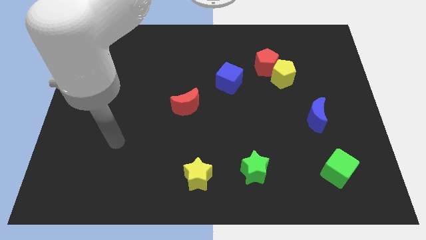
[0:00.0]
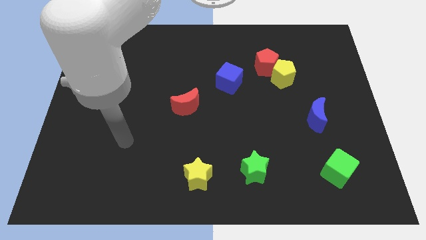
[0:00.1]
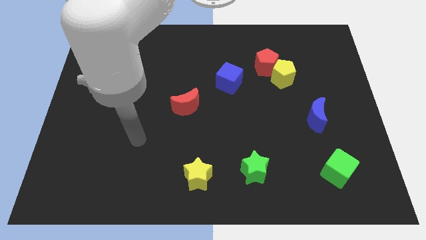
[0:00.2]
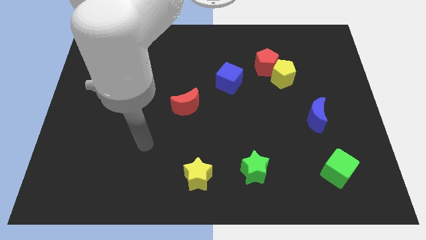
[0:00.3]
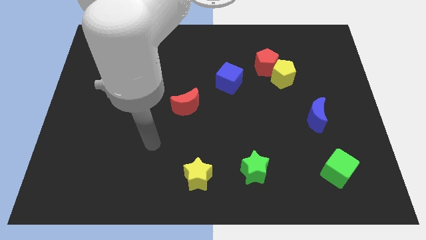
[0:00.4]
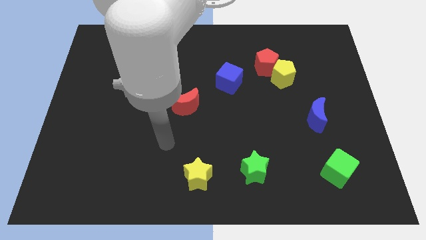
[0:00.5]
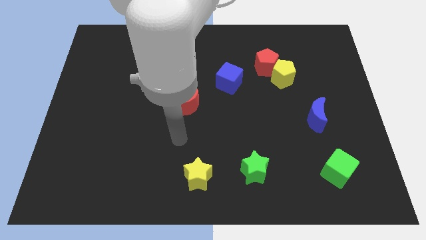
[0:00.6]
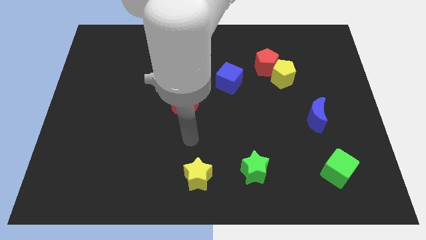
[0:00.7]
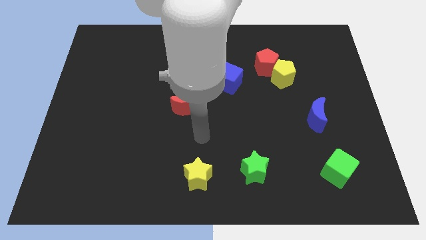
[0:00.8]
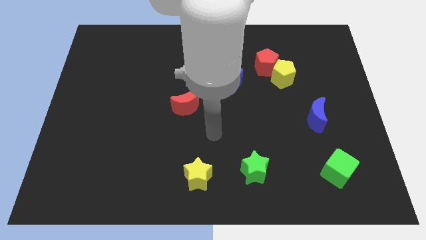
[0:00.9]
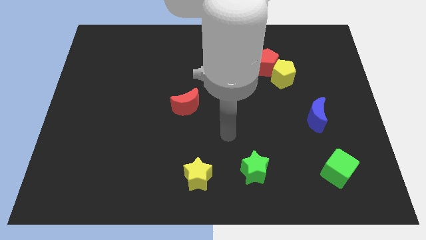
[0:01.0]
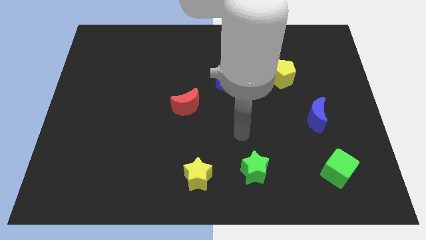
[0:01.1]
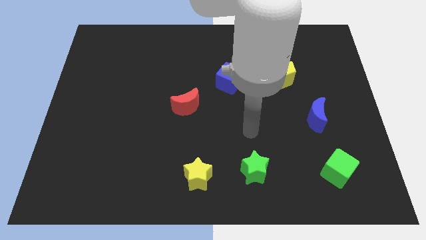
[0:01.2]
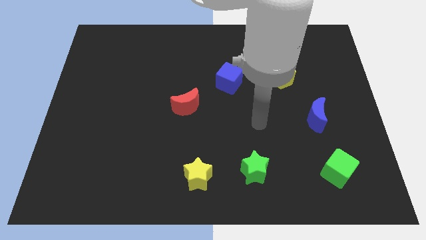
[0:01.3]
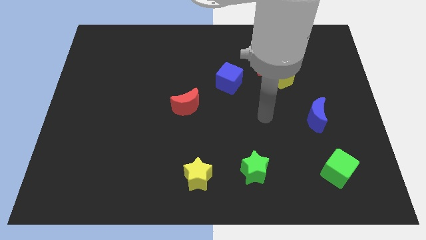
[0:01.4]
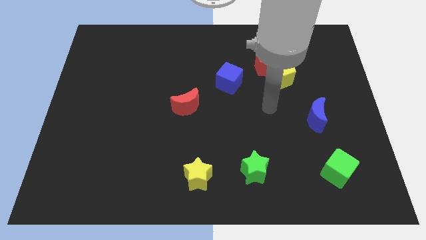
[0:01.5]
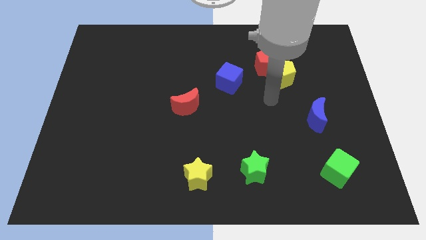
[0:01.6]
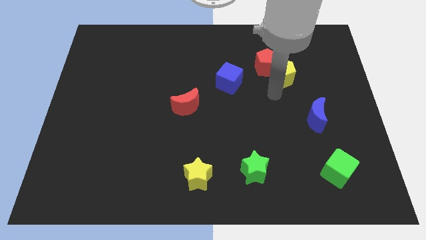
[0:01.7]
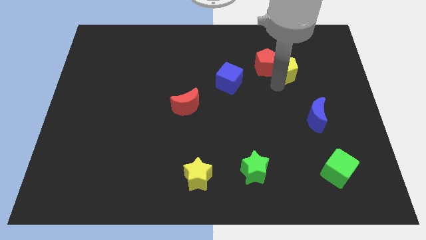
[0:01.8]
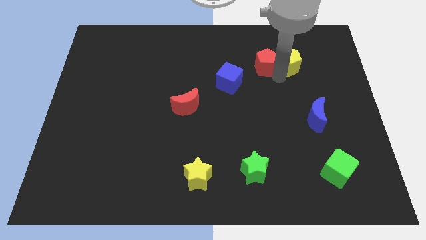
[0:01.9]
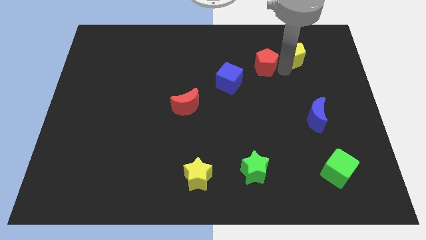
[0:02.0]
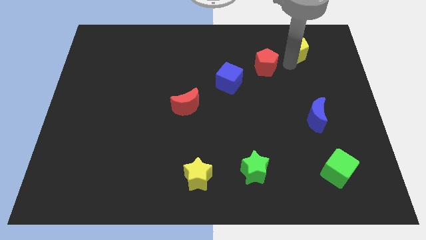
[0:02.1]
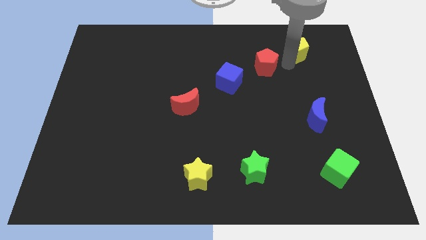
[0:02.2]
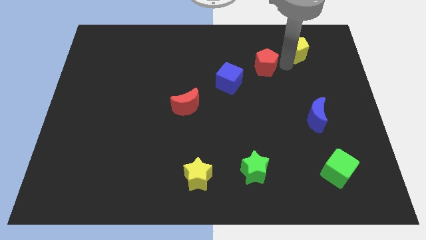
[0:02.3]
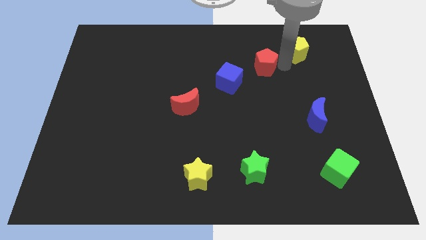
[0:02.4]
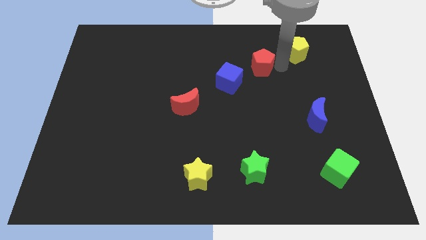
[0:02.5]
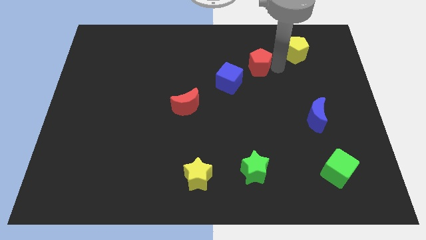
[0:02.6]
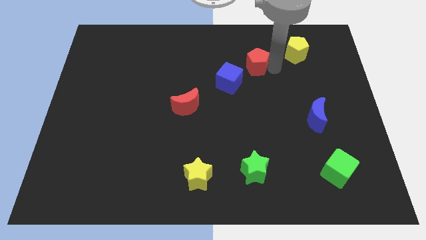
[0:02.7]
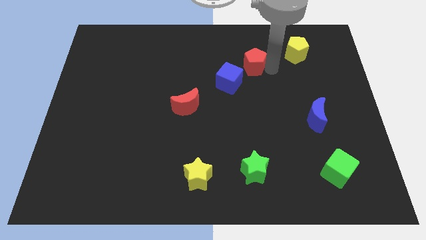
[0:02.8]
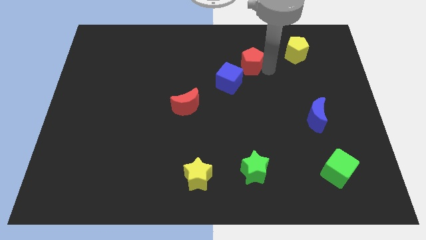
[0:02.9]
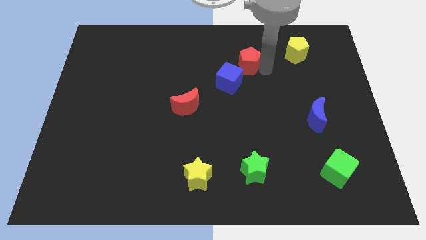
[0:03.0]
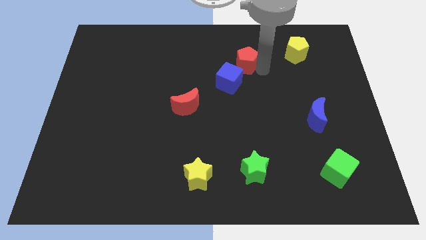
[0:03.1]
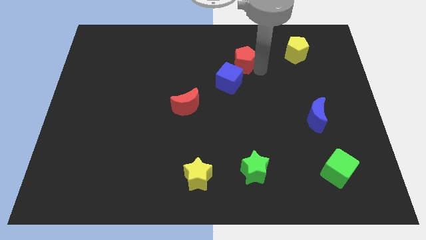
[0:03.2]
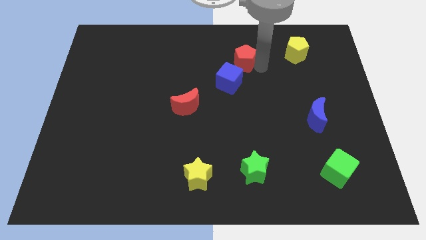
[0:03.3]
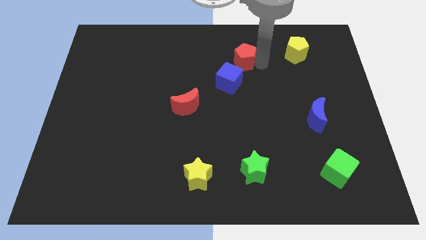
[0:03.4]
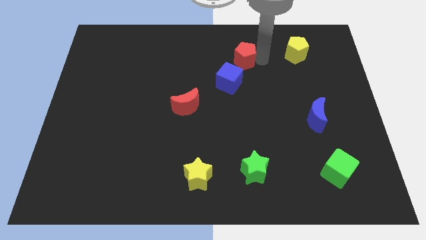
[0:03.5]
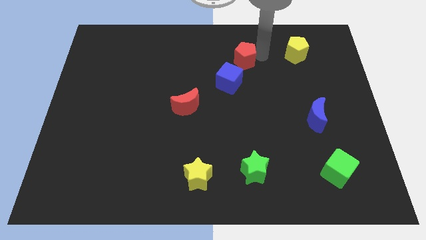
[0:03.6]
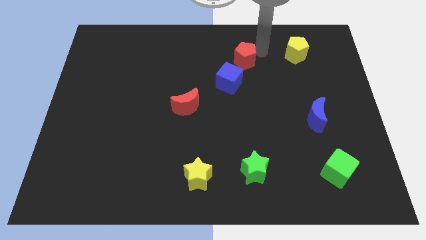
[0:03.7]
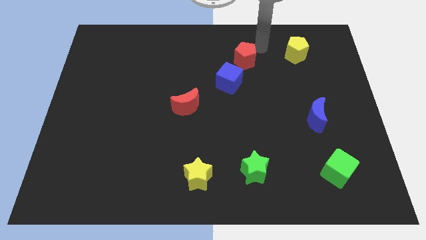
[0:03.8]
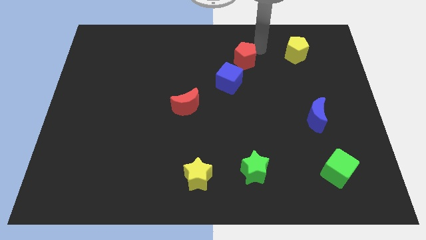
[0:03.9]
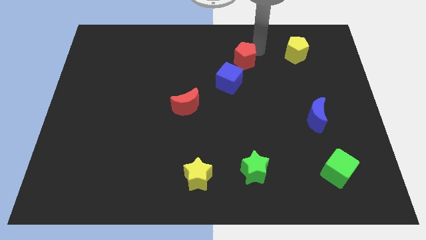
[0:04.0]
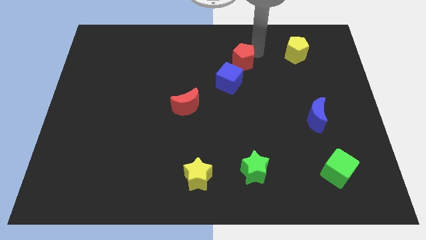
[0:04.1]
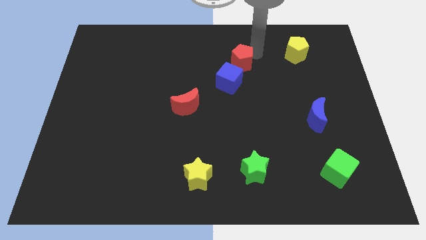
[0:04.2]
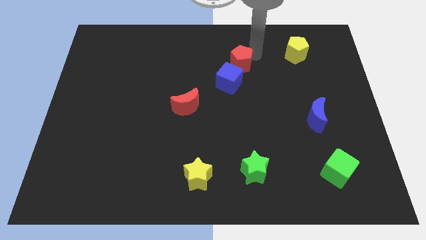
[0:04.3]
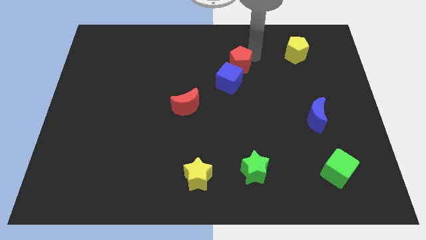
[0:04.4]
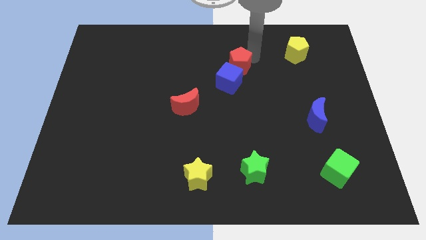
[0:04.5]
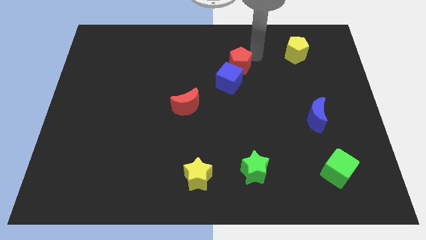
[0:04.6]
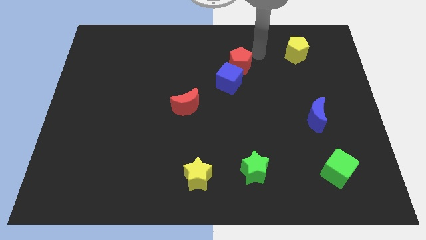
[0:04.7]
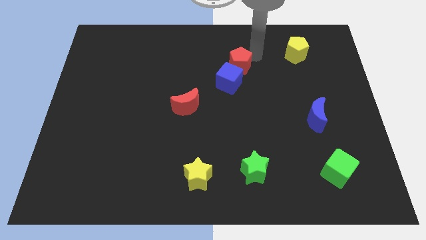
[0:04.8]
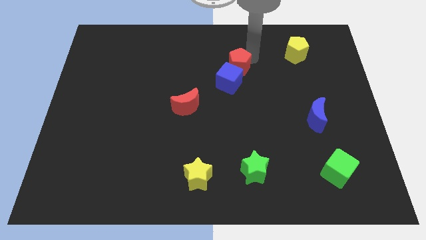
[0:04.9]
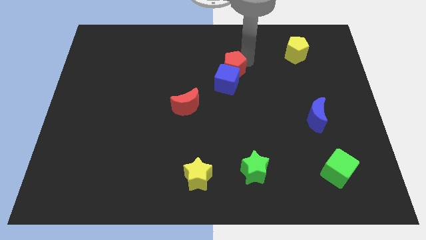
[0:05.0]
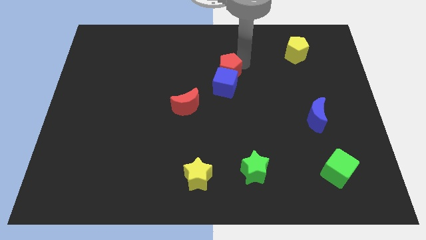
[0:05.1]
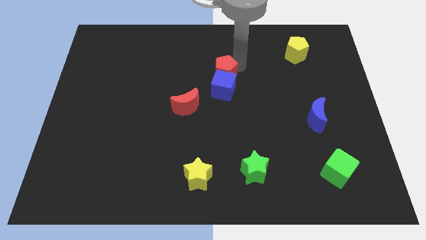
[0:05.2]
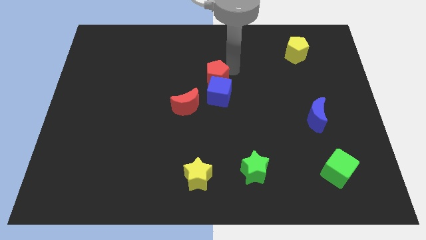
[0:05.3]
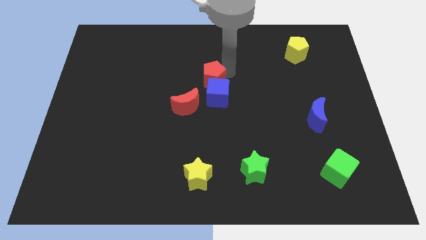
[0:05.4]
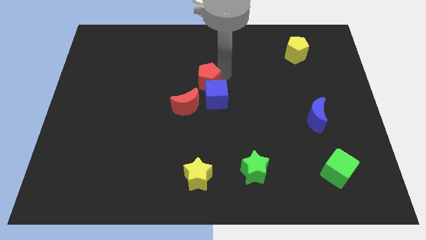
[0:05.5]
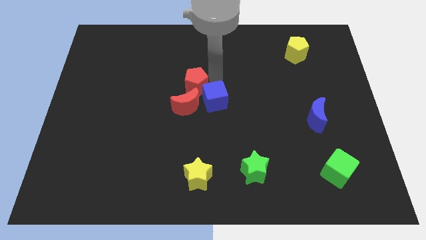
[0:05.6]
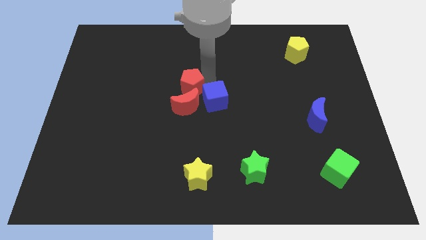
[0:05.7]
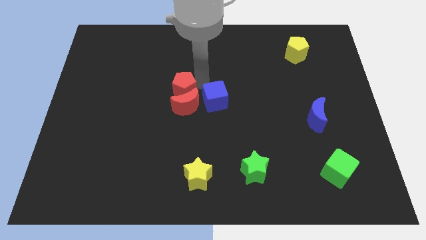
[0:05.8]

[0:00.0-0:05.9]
slide the red pentagon to the top left side of the red moon

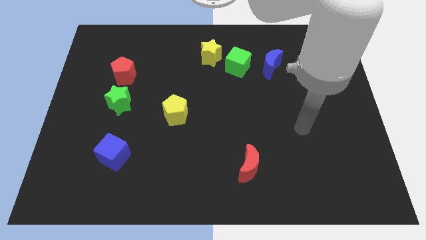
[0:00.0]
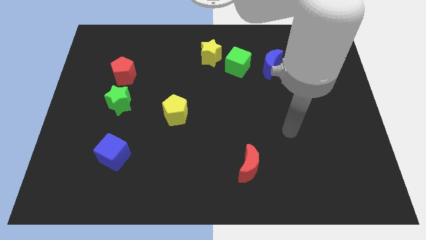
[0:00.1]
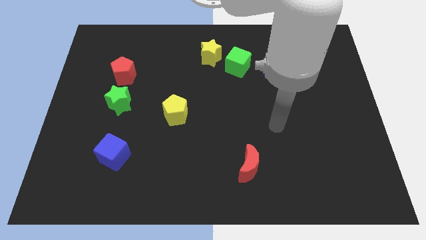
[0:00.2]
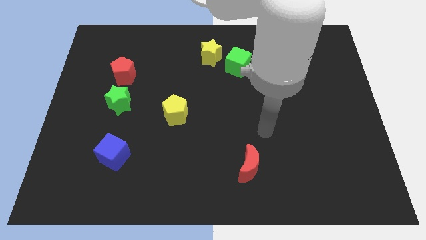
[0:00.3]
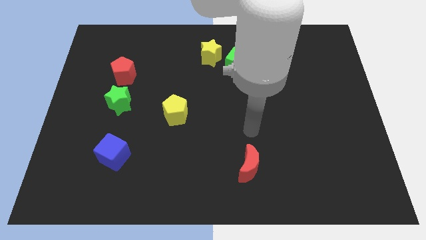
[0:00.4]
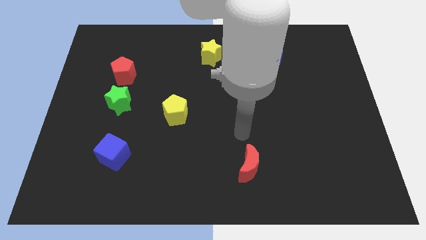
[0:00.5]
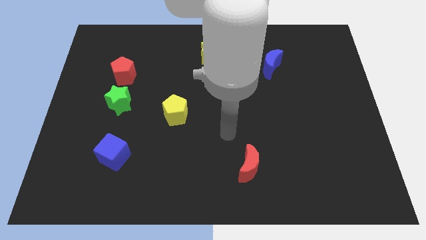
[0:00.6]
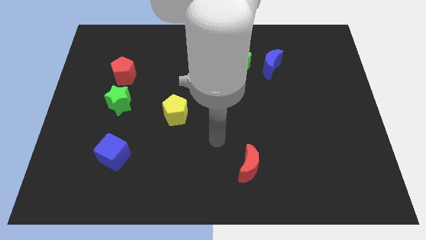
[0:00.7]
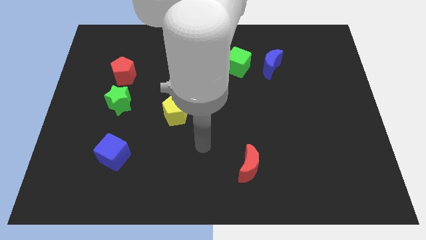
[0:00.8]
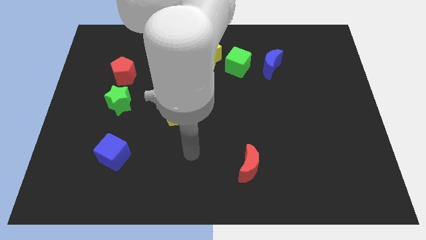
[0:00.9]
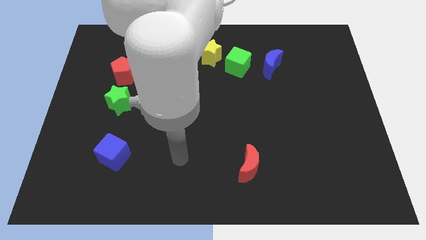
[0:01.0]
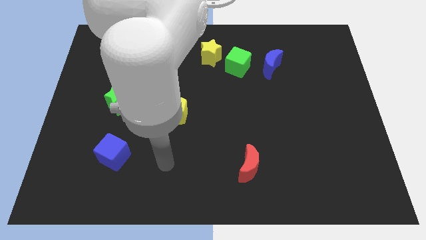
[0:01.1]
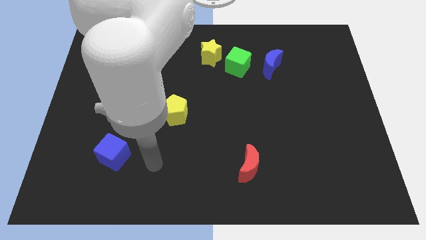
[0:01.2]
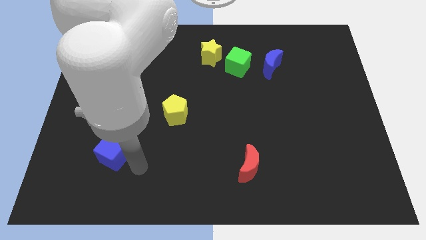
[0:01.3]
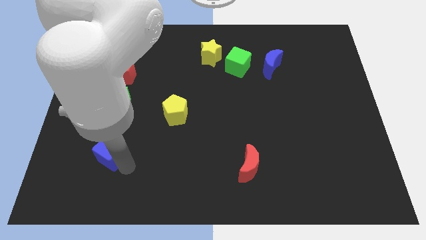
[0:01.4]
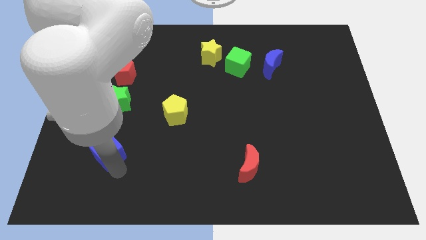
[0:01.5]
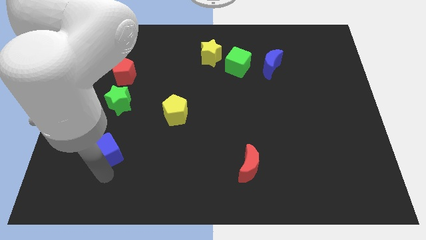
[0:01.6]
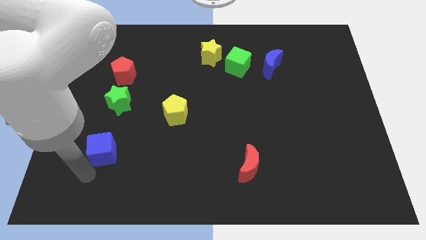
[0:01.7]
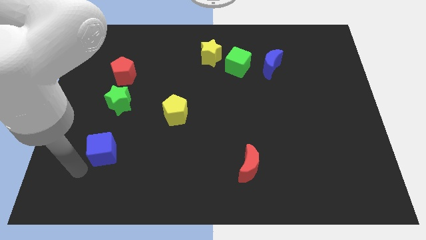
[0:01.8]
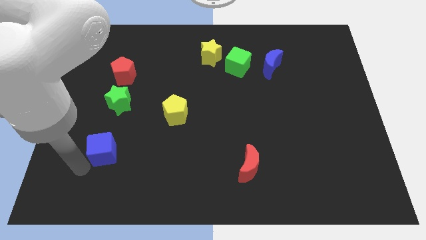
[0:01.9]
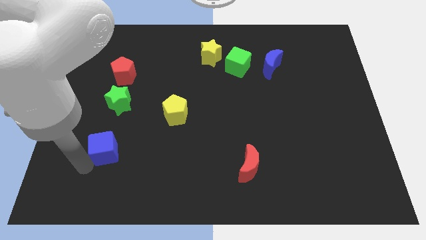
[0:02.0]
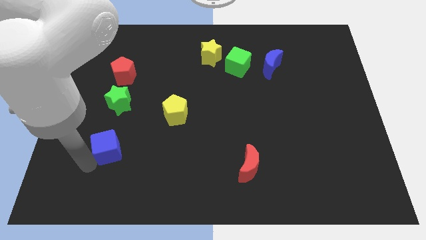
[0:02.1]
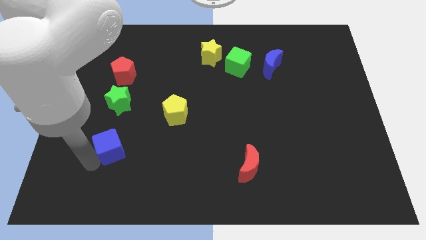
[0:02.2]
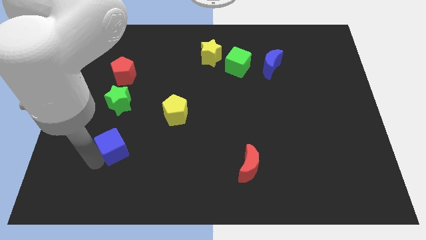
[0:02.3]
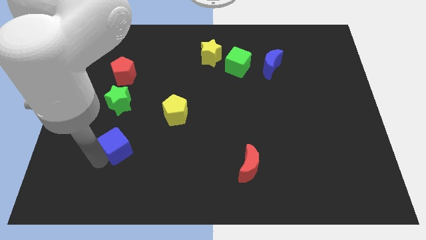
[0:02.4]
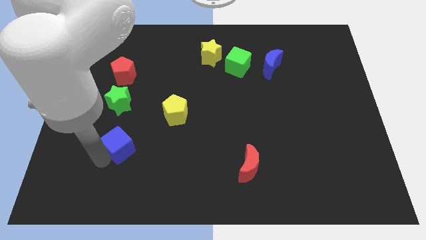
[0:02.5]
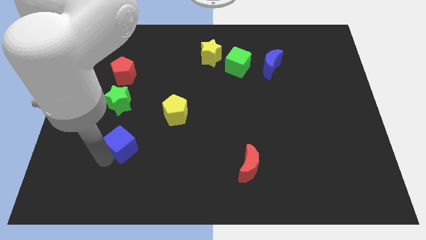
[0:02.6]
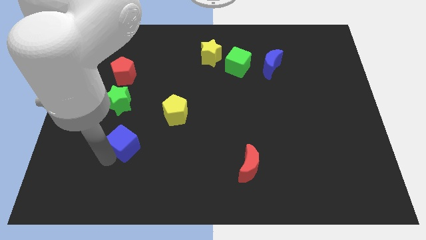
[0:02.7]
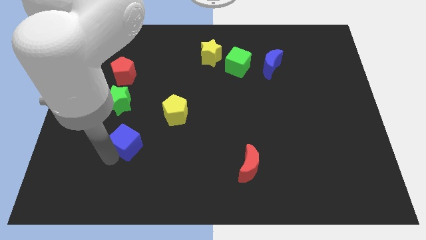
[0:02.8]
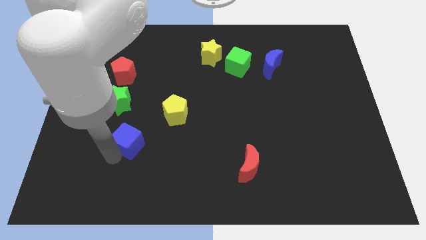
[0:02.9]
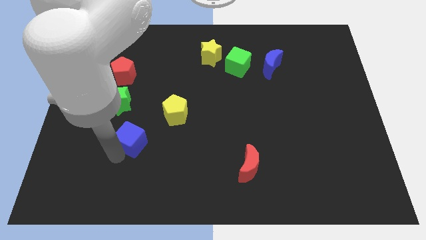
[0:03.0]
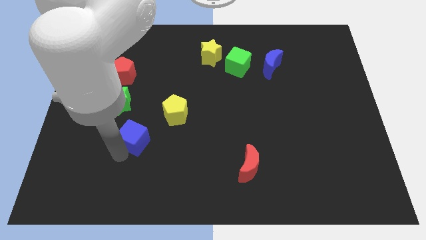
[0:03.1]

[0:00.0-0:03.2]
put the blue cube to the bottom right side of the green star
